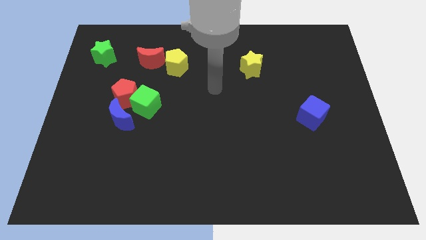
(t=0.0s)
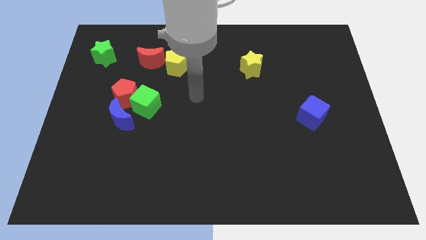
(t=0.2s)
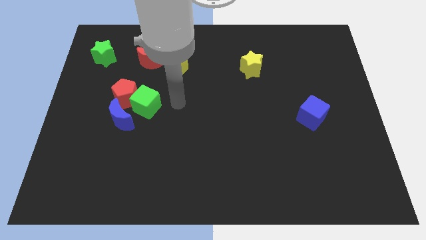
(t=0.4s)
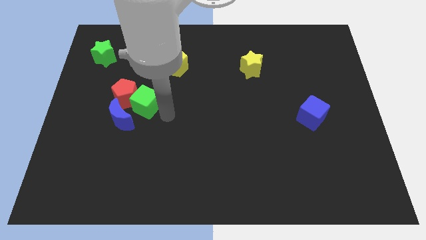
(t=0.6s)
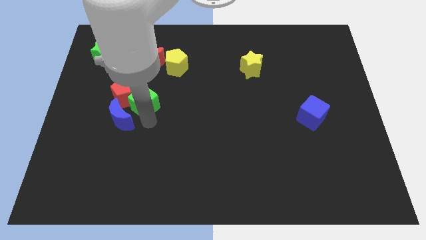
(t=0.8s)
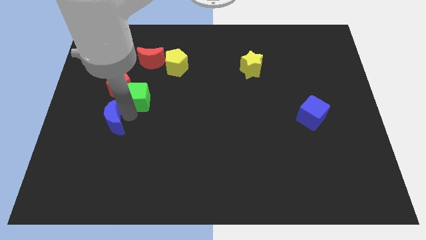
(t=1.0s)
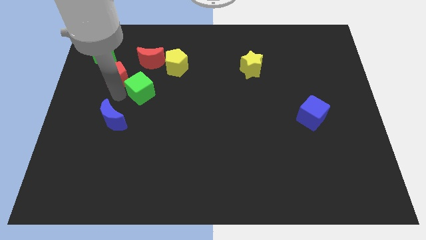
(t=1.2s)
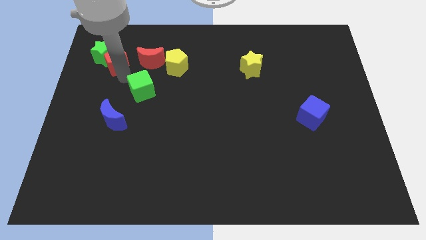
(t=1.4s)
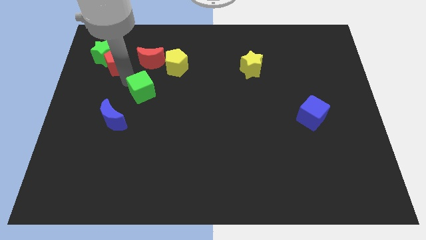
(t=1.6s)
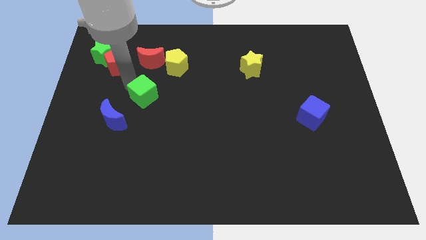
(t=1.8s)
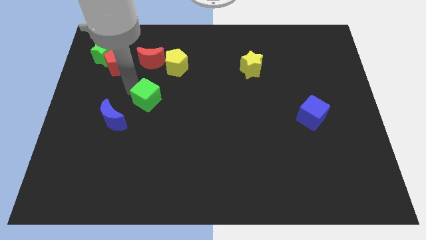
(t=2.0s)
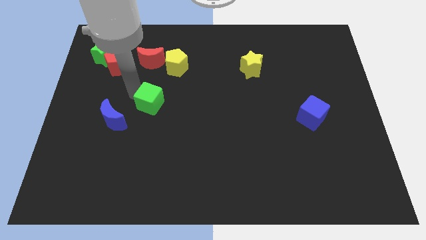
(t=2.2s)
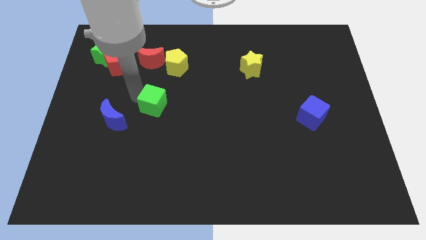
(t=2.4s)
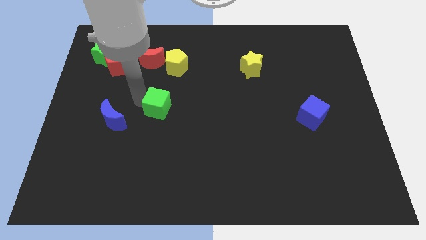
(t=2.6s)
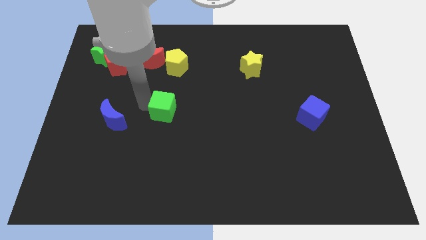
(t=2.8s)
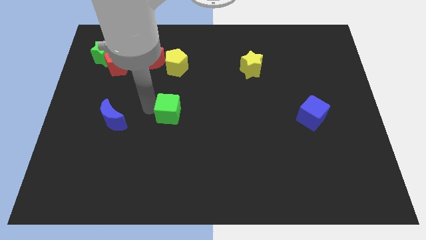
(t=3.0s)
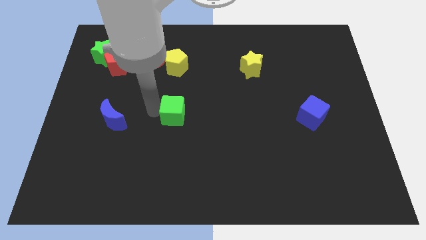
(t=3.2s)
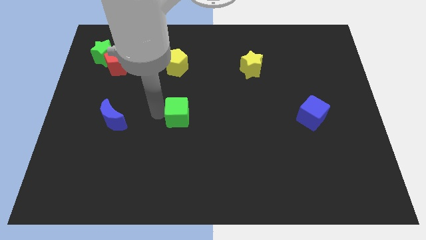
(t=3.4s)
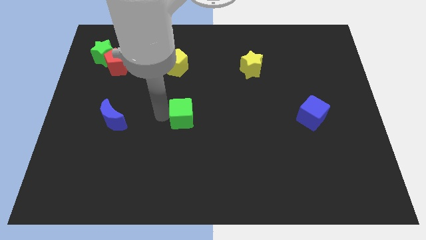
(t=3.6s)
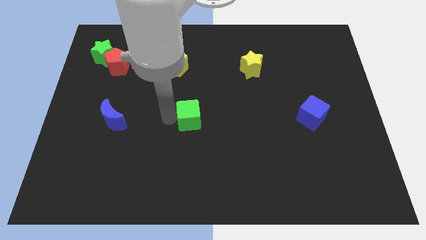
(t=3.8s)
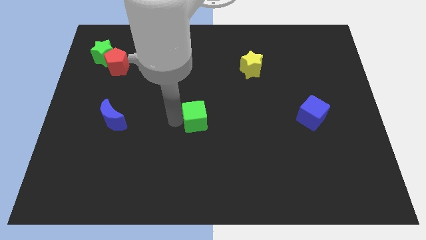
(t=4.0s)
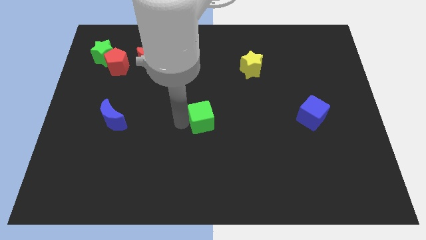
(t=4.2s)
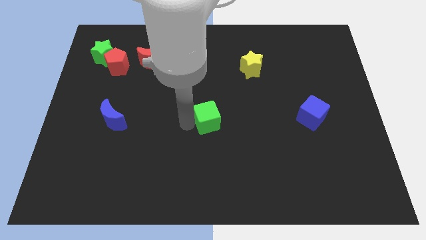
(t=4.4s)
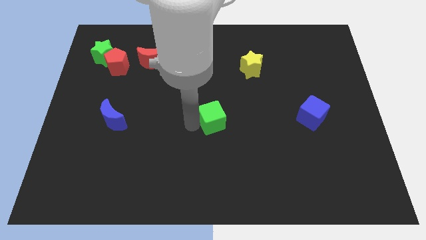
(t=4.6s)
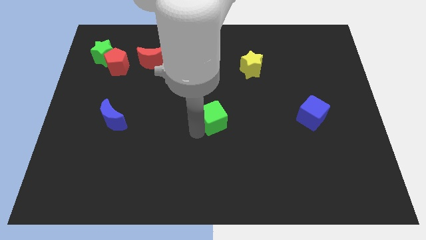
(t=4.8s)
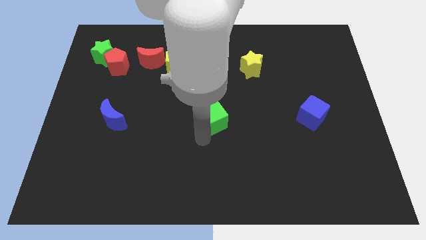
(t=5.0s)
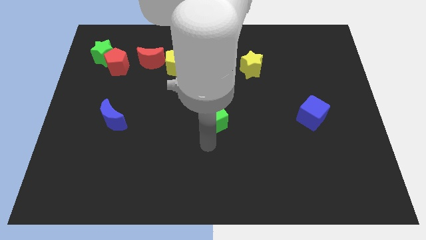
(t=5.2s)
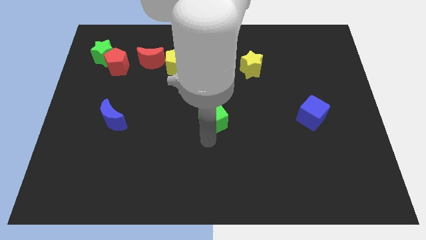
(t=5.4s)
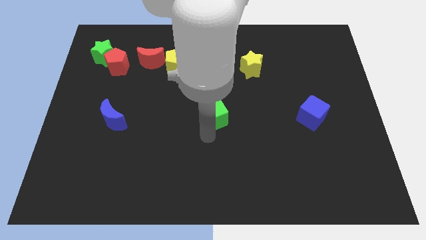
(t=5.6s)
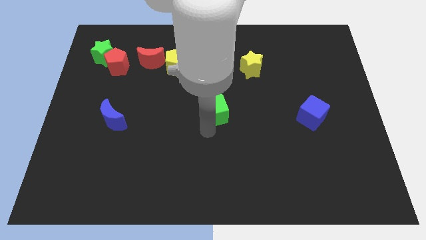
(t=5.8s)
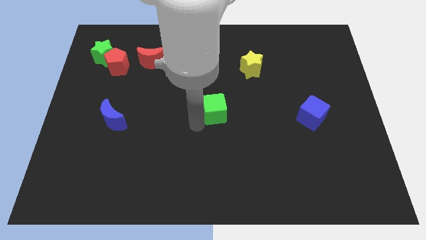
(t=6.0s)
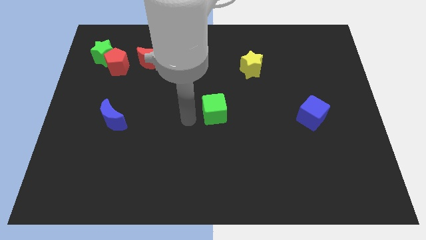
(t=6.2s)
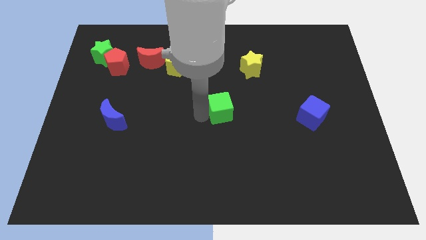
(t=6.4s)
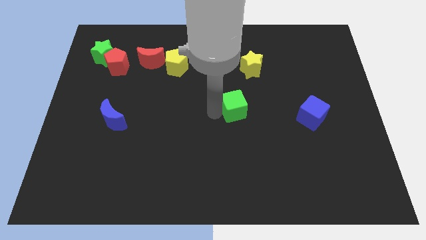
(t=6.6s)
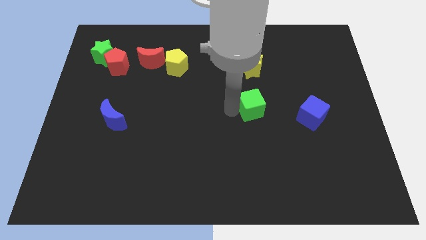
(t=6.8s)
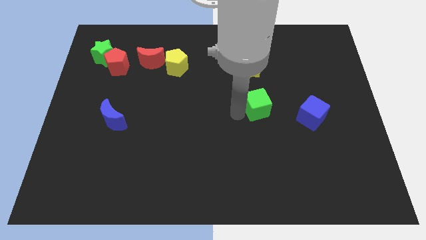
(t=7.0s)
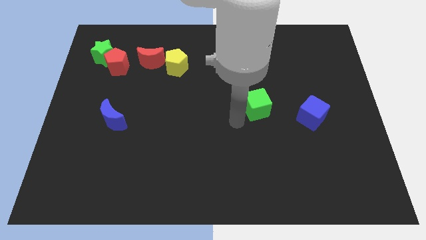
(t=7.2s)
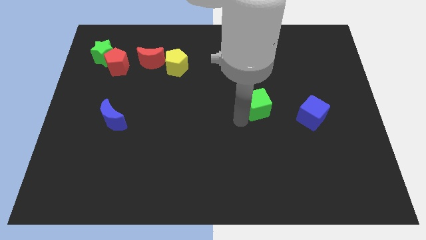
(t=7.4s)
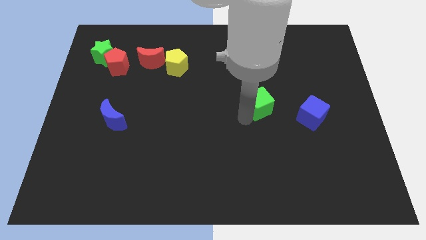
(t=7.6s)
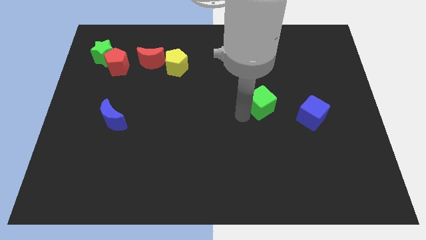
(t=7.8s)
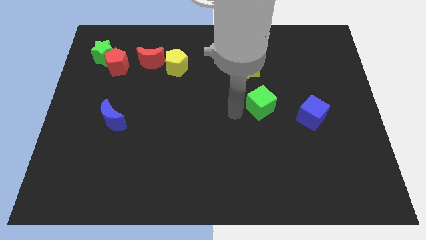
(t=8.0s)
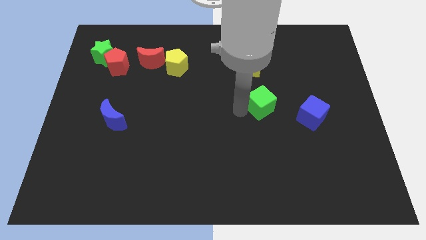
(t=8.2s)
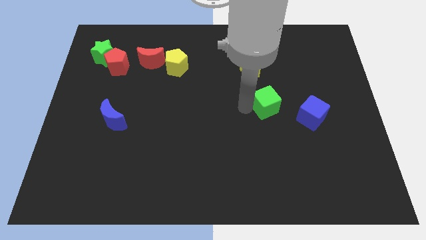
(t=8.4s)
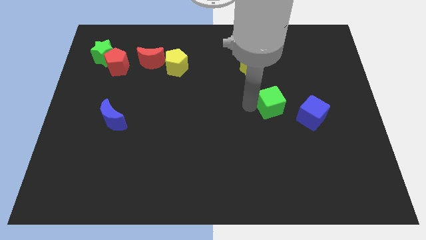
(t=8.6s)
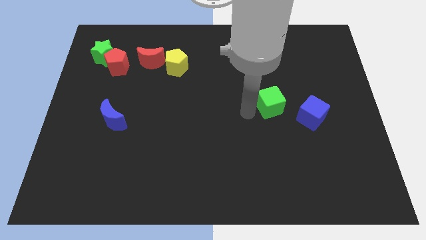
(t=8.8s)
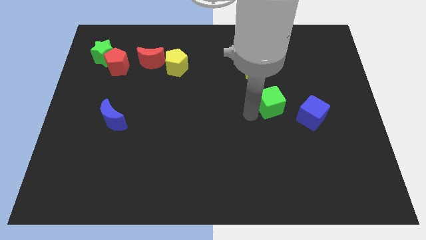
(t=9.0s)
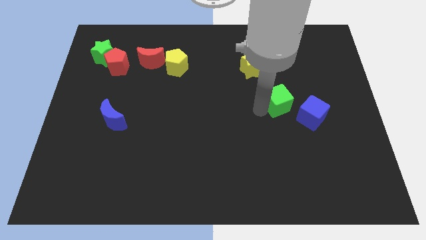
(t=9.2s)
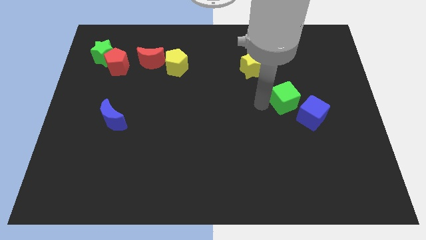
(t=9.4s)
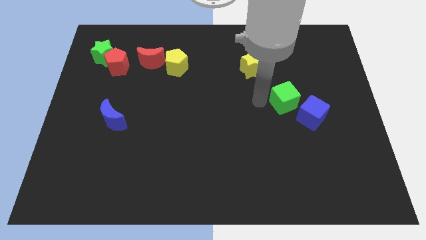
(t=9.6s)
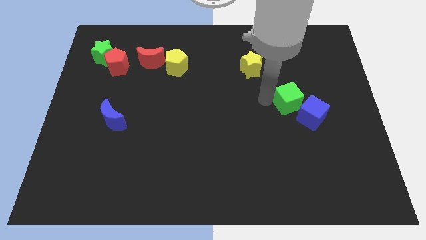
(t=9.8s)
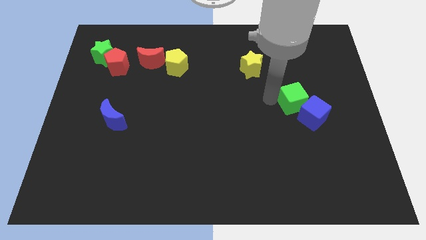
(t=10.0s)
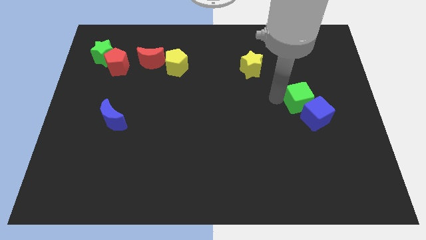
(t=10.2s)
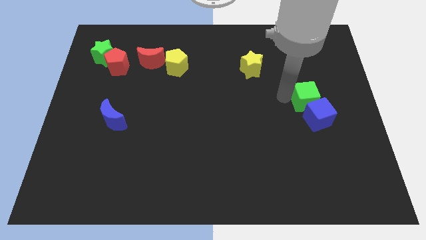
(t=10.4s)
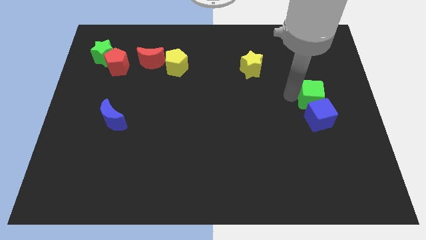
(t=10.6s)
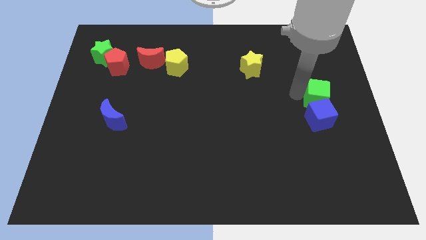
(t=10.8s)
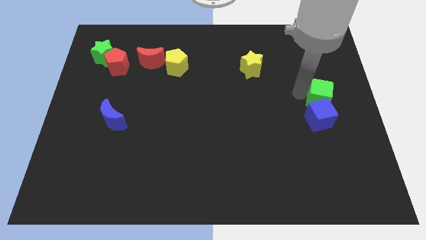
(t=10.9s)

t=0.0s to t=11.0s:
push the green cube to the right side of the board
